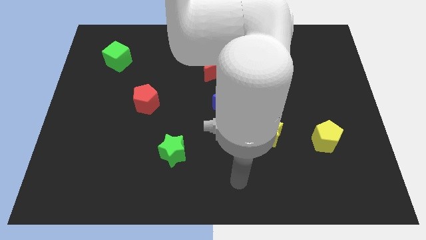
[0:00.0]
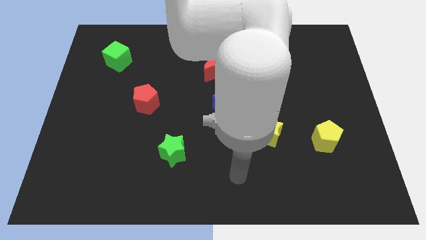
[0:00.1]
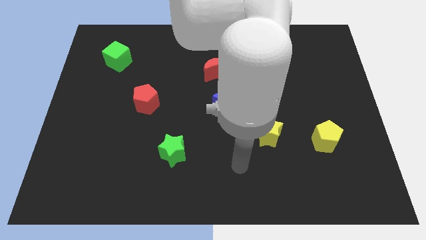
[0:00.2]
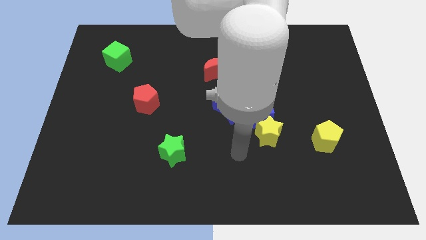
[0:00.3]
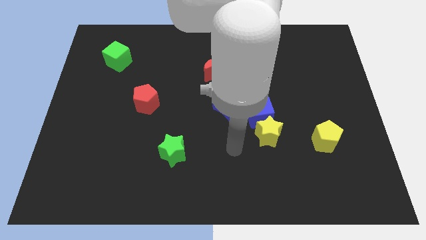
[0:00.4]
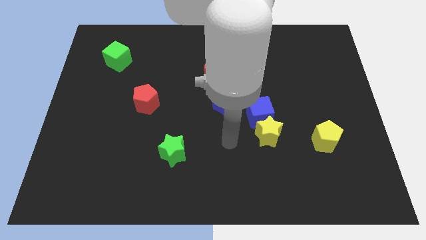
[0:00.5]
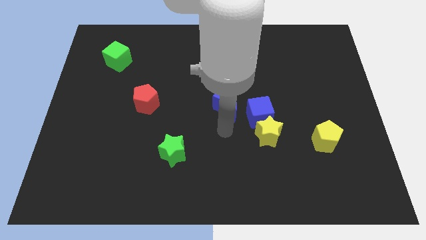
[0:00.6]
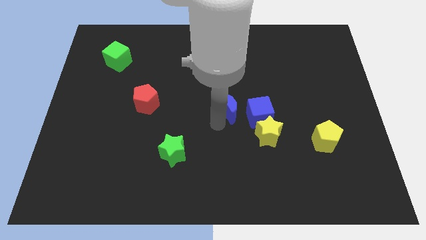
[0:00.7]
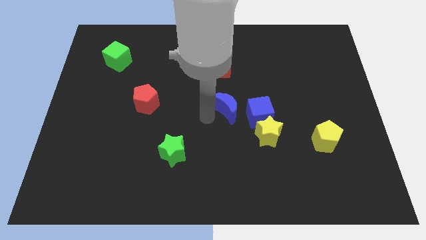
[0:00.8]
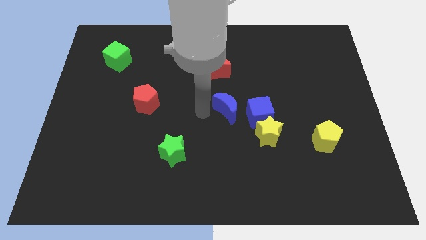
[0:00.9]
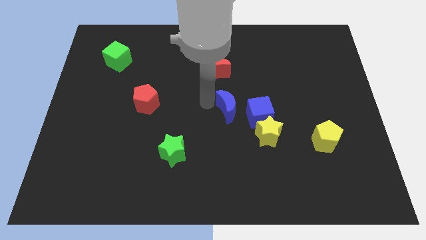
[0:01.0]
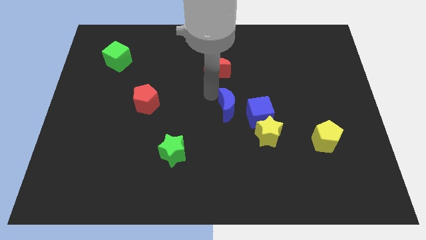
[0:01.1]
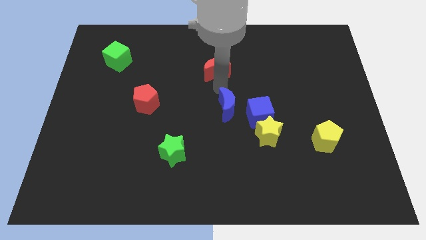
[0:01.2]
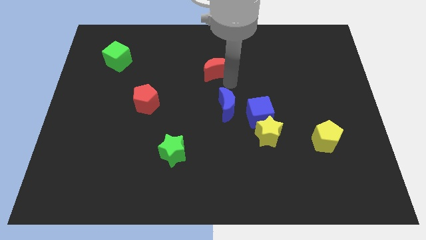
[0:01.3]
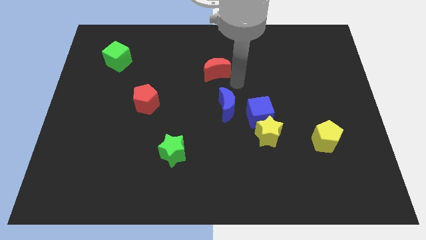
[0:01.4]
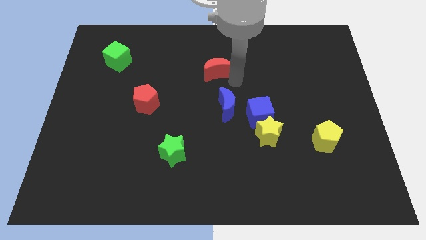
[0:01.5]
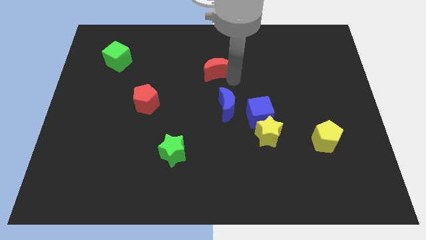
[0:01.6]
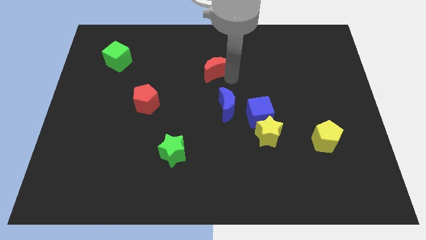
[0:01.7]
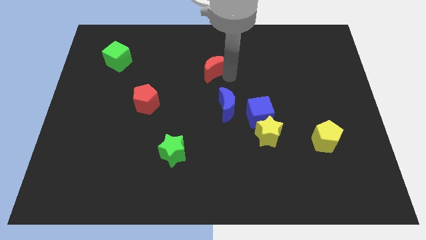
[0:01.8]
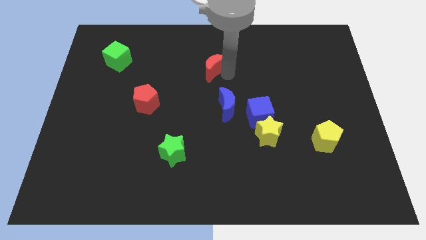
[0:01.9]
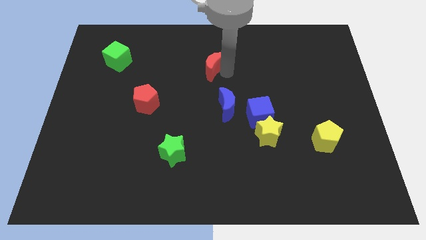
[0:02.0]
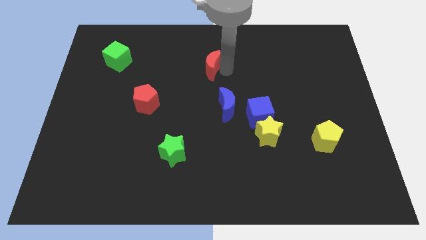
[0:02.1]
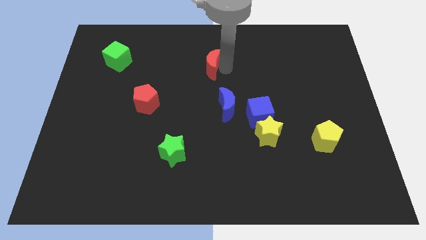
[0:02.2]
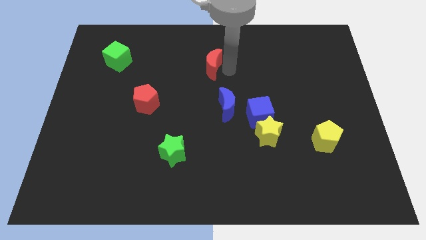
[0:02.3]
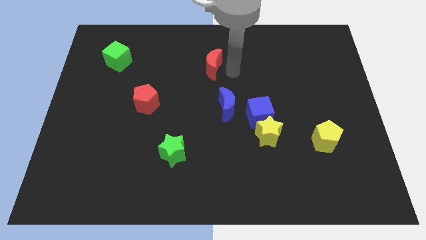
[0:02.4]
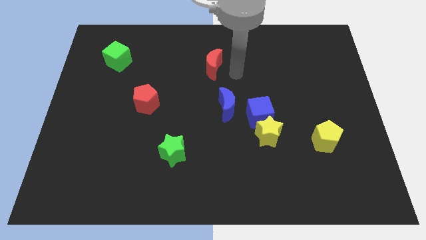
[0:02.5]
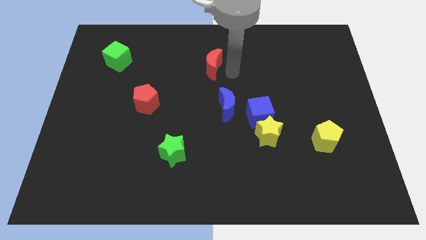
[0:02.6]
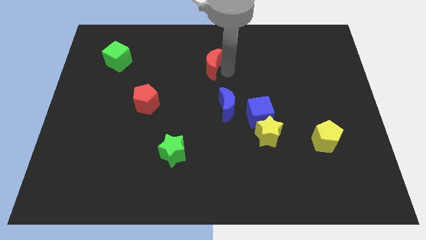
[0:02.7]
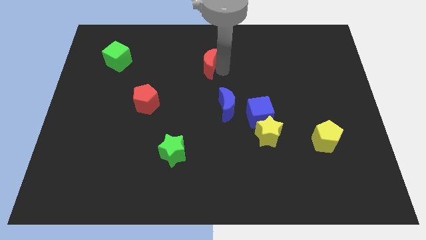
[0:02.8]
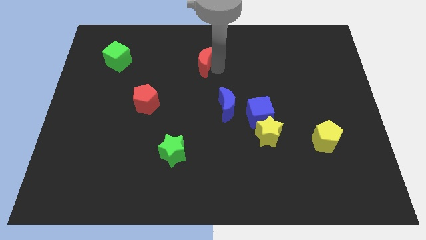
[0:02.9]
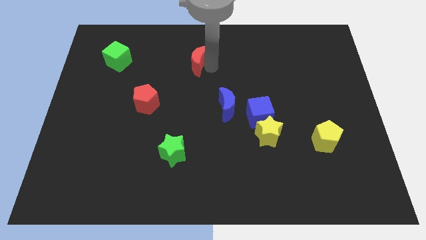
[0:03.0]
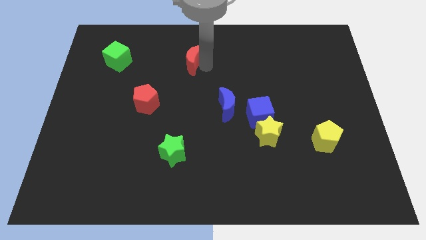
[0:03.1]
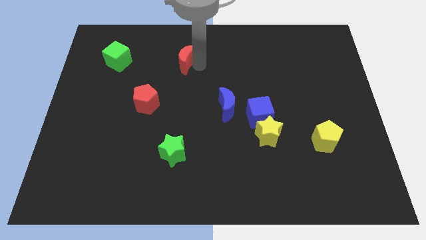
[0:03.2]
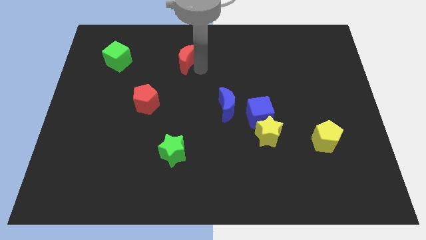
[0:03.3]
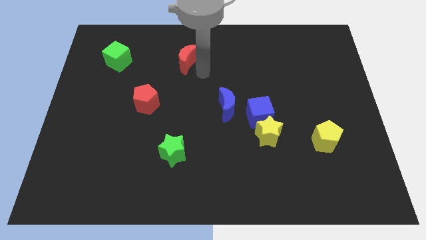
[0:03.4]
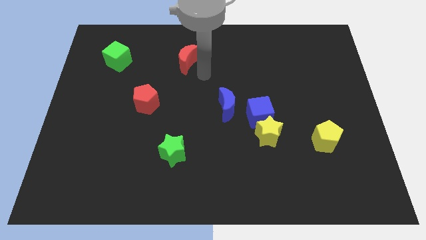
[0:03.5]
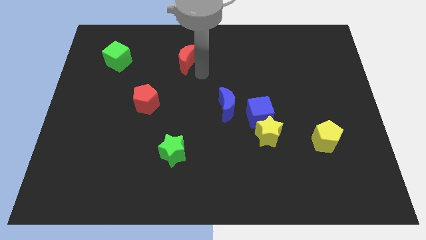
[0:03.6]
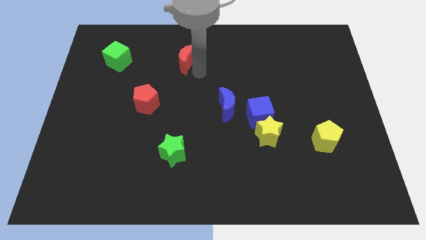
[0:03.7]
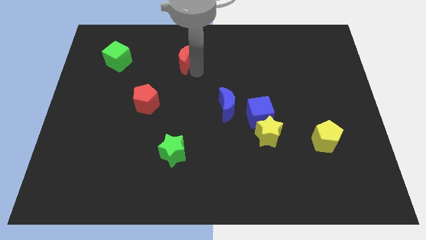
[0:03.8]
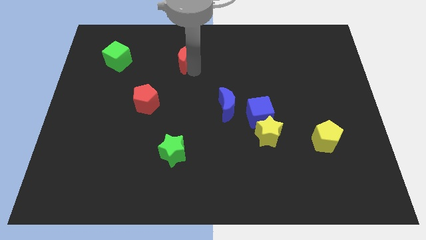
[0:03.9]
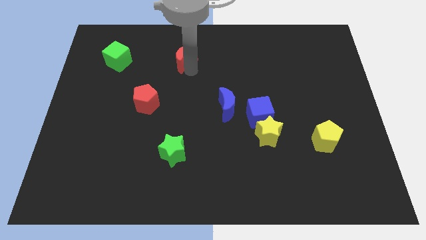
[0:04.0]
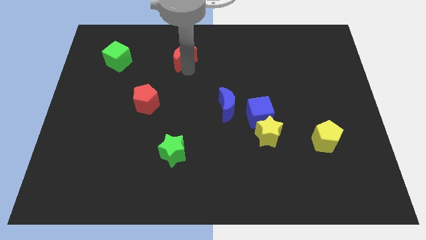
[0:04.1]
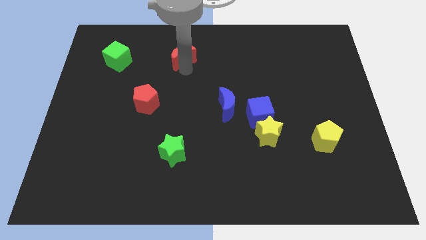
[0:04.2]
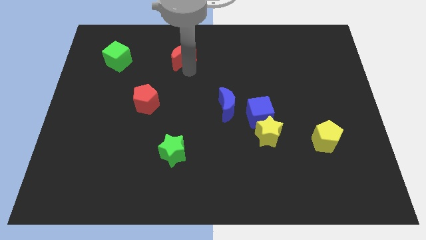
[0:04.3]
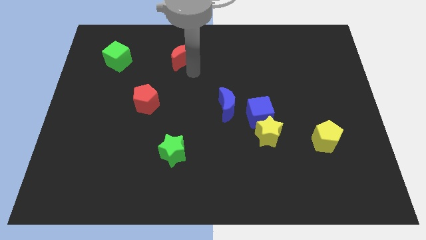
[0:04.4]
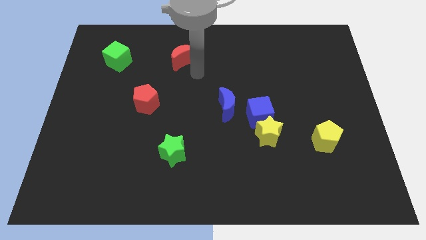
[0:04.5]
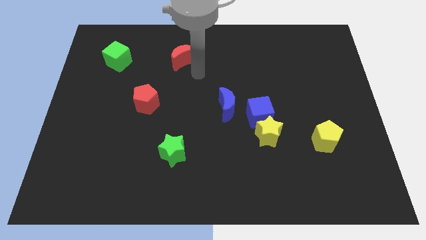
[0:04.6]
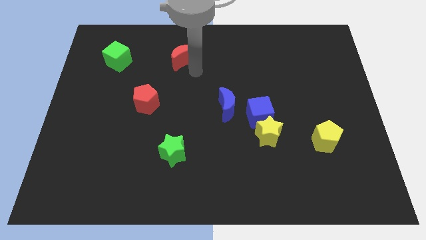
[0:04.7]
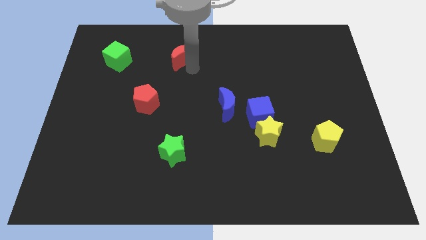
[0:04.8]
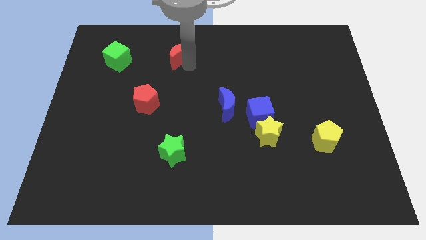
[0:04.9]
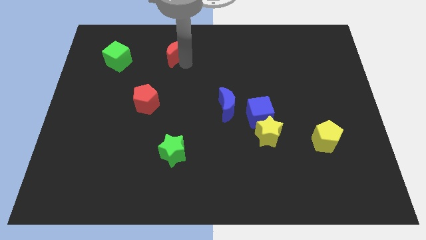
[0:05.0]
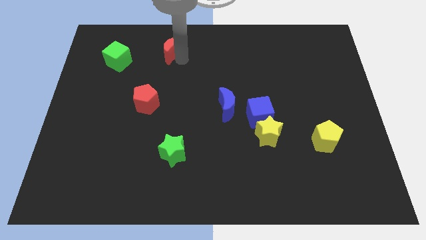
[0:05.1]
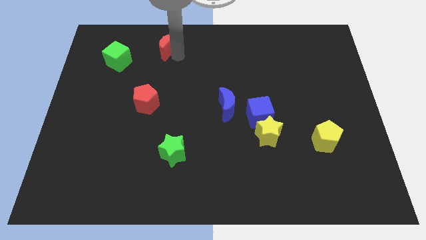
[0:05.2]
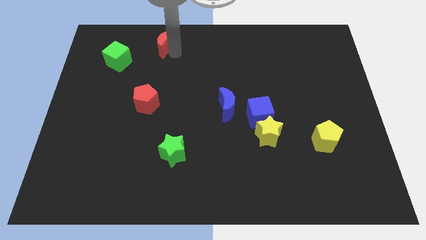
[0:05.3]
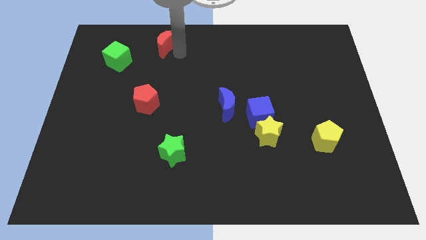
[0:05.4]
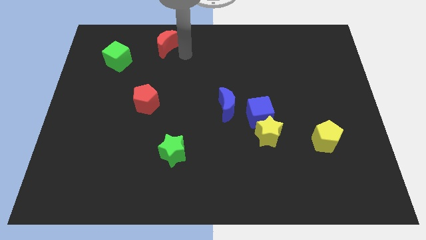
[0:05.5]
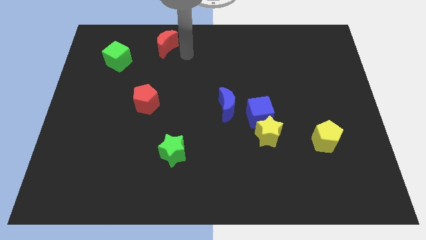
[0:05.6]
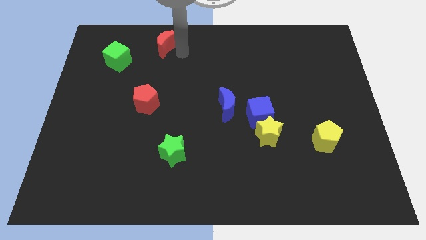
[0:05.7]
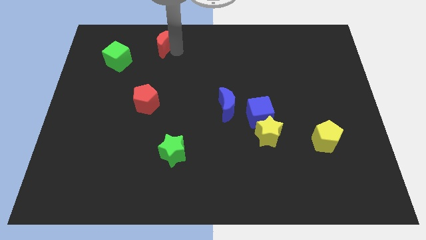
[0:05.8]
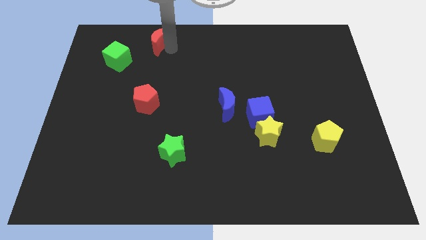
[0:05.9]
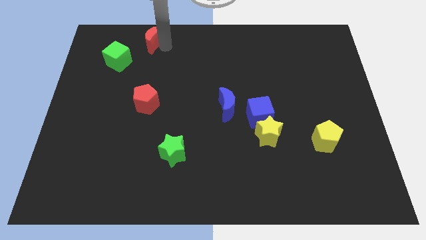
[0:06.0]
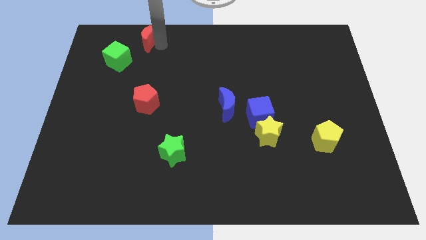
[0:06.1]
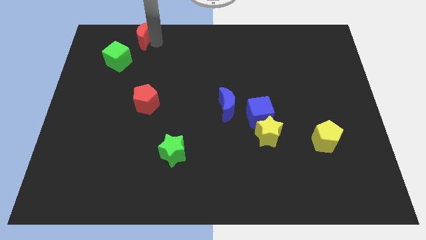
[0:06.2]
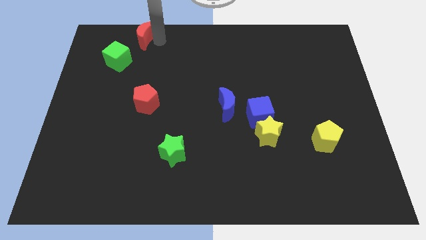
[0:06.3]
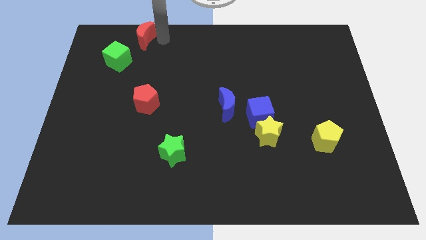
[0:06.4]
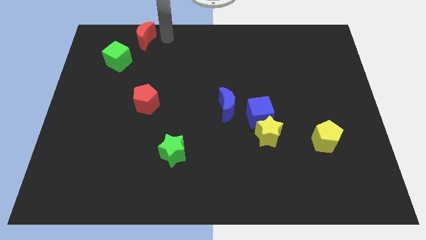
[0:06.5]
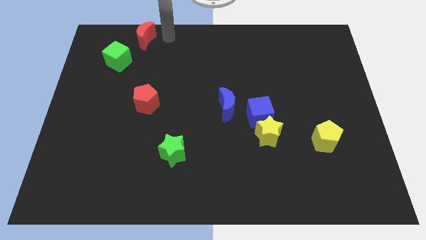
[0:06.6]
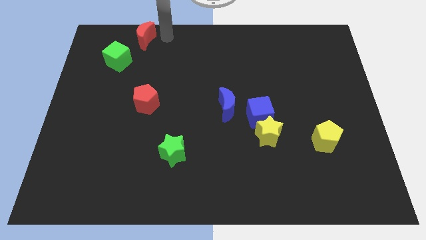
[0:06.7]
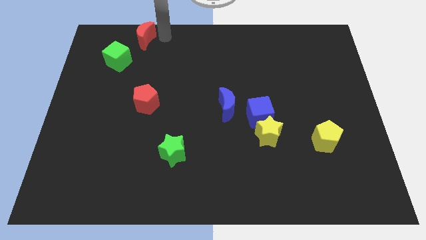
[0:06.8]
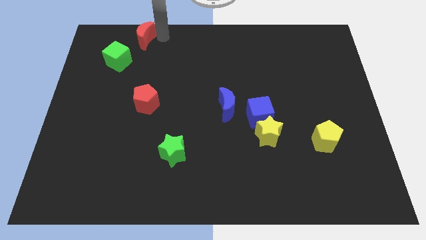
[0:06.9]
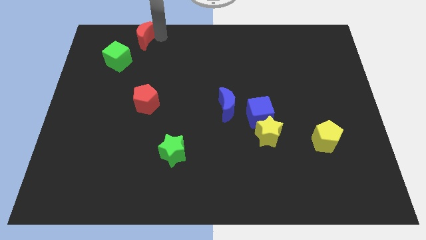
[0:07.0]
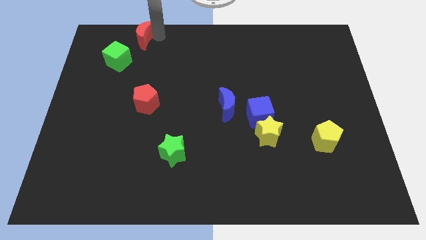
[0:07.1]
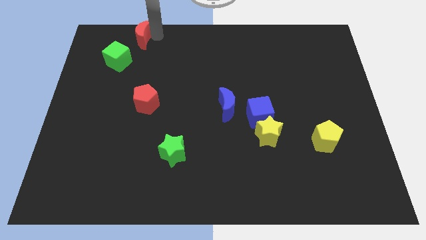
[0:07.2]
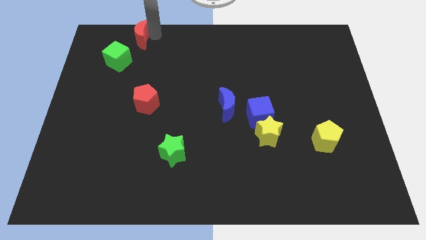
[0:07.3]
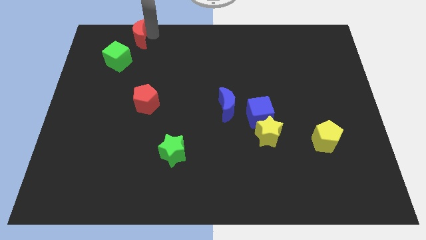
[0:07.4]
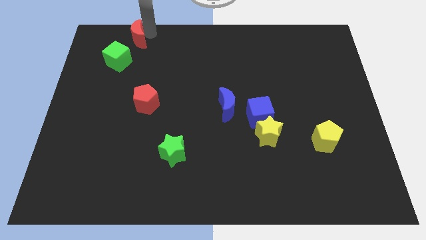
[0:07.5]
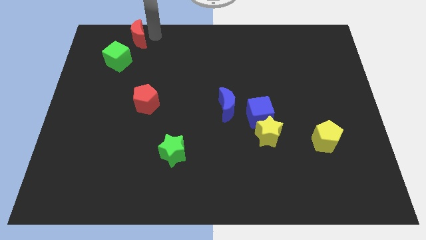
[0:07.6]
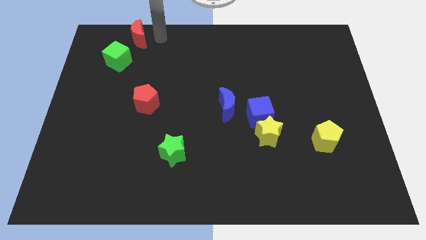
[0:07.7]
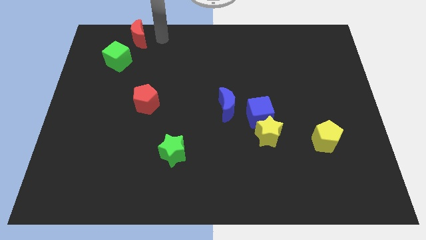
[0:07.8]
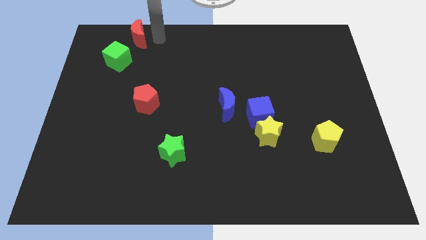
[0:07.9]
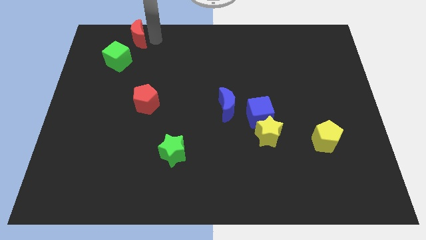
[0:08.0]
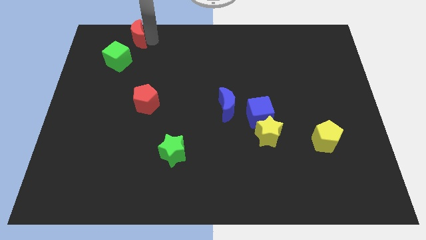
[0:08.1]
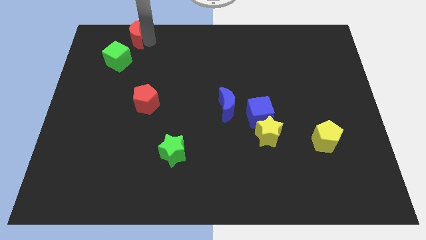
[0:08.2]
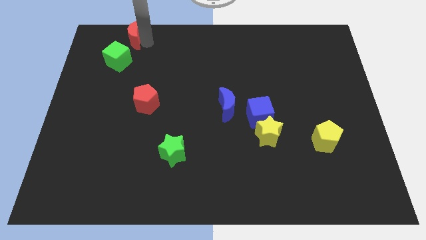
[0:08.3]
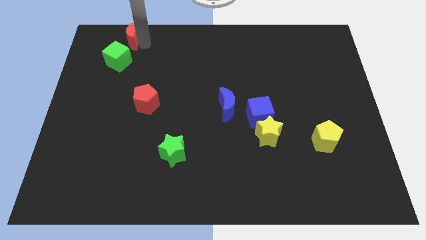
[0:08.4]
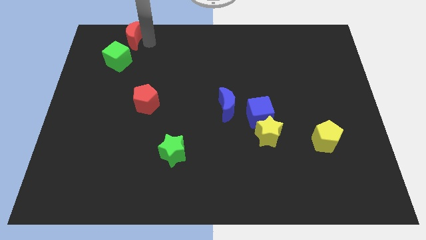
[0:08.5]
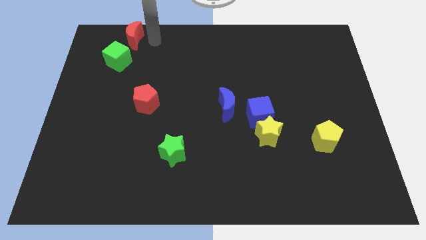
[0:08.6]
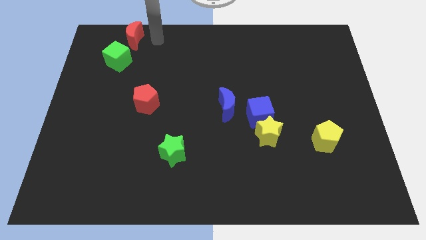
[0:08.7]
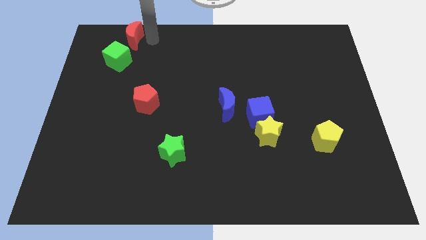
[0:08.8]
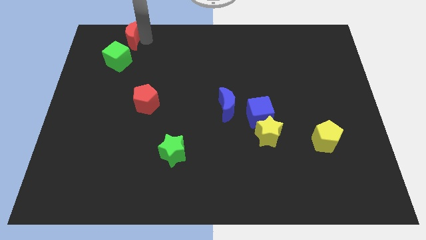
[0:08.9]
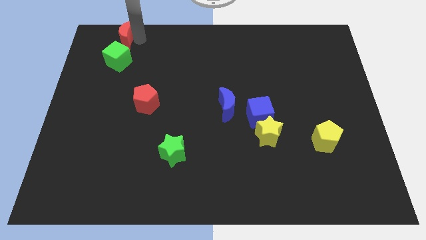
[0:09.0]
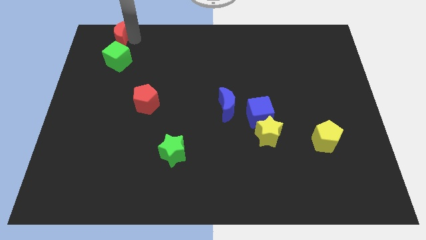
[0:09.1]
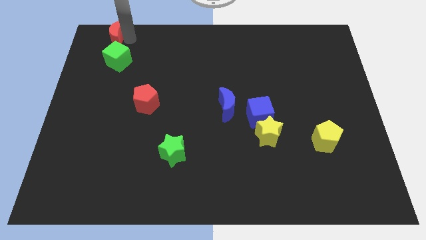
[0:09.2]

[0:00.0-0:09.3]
slide the red moon to the upper left corner
